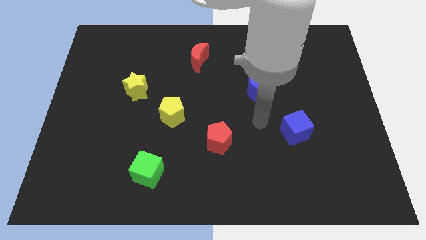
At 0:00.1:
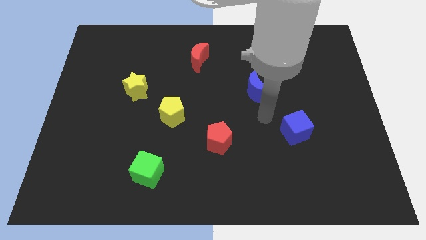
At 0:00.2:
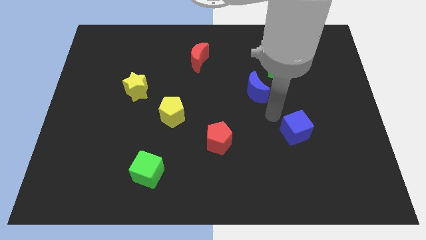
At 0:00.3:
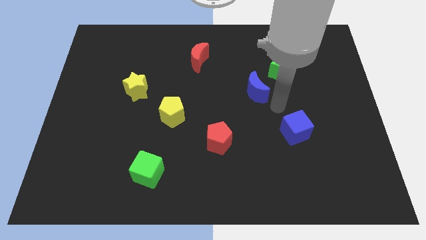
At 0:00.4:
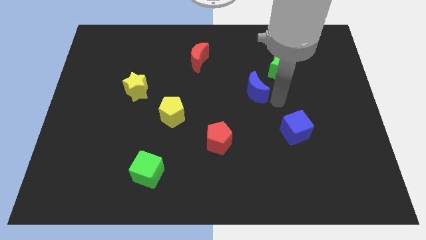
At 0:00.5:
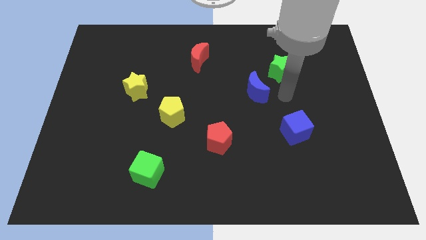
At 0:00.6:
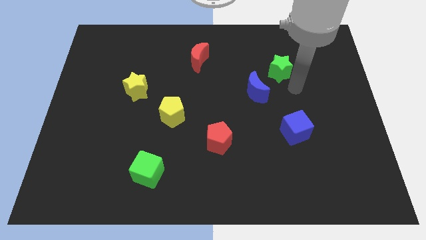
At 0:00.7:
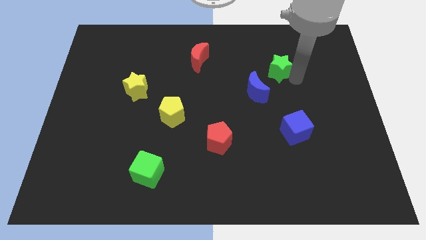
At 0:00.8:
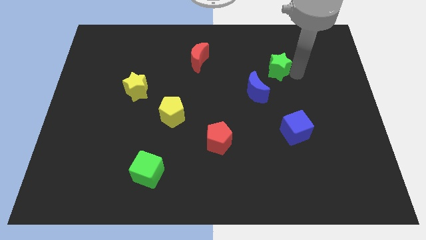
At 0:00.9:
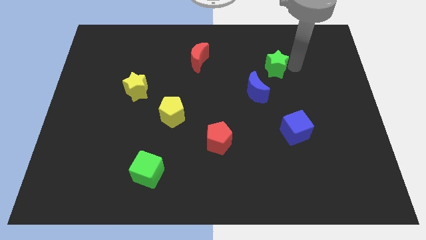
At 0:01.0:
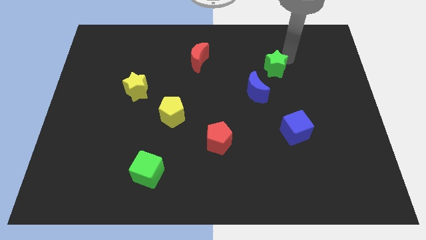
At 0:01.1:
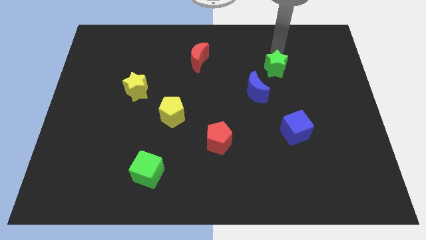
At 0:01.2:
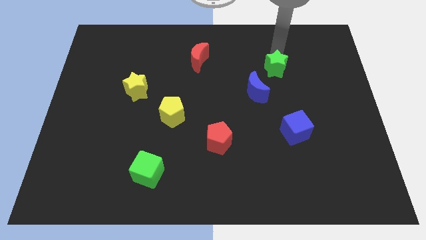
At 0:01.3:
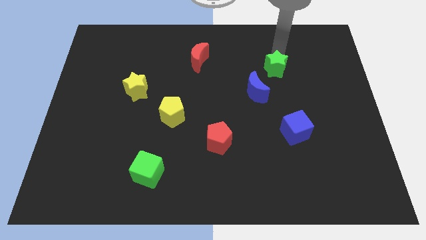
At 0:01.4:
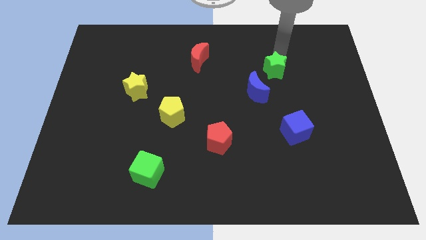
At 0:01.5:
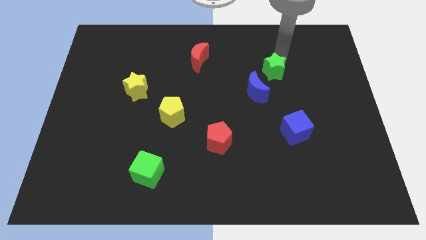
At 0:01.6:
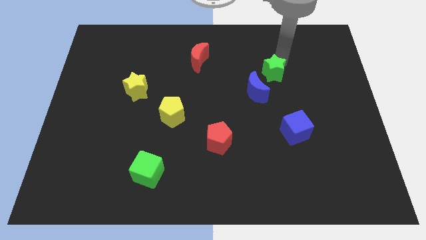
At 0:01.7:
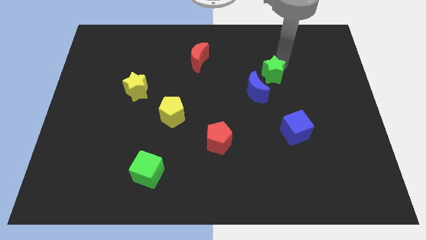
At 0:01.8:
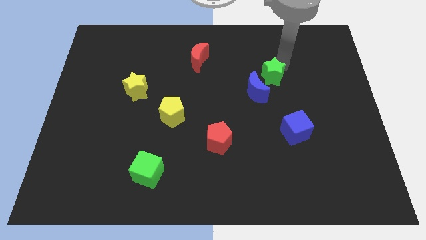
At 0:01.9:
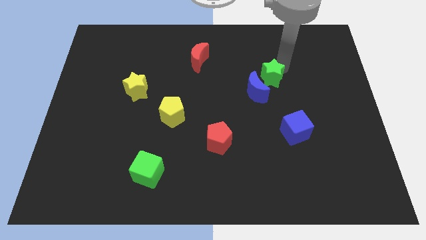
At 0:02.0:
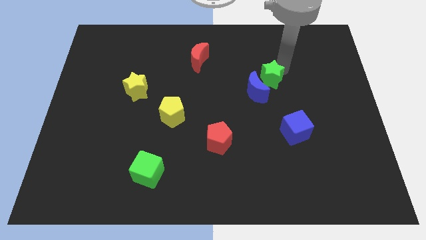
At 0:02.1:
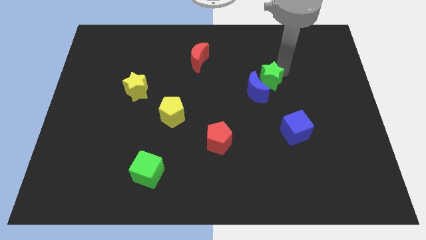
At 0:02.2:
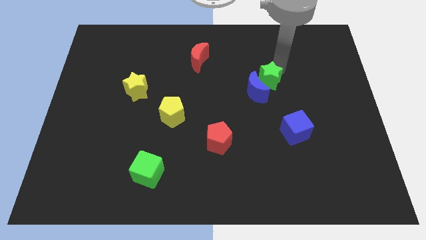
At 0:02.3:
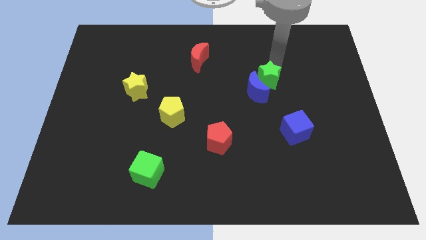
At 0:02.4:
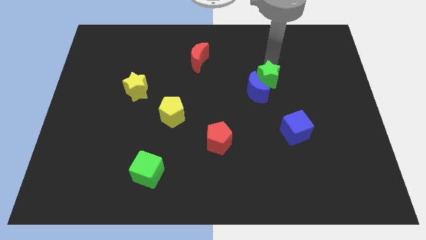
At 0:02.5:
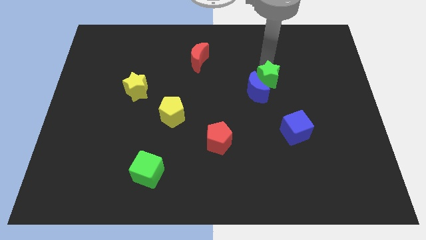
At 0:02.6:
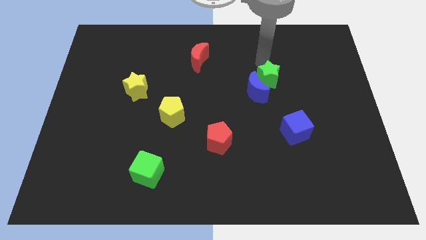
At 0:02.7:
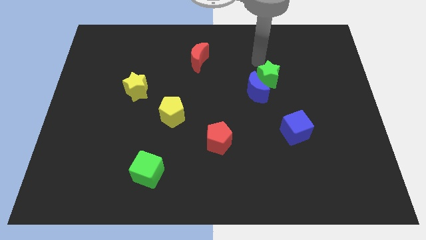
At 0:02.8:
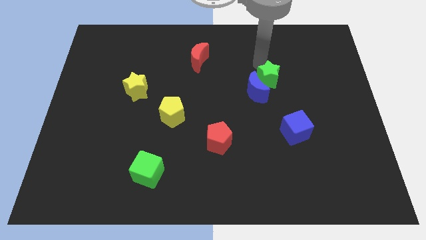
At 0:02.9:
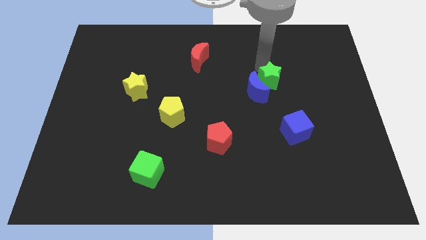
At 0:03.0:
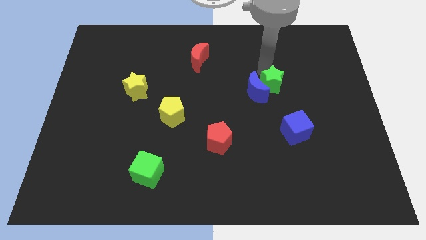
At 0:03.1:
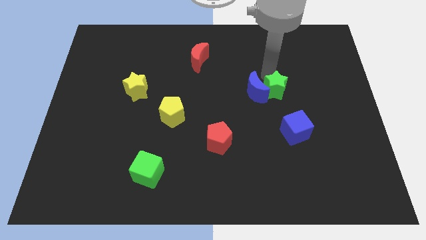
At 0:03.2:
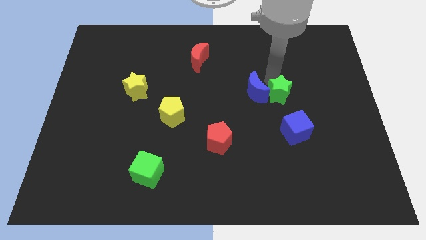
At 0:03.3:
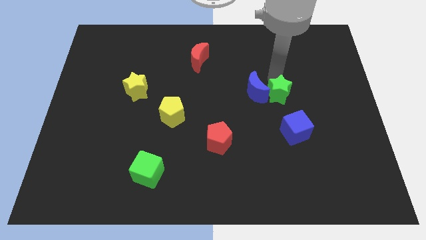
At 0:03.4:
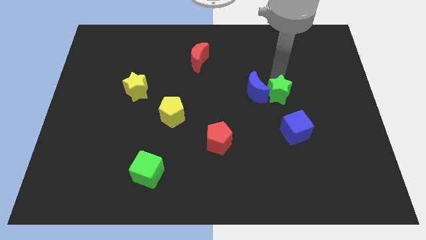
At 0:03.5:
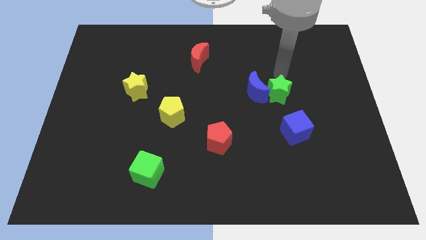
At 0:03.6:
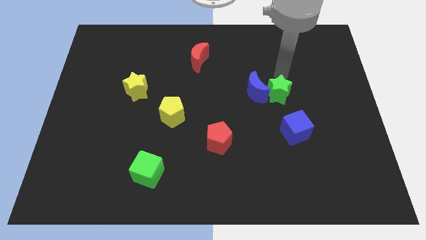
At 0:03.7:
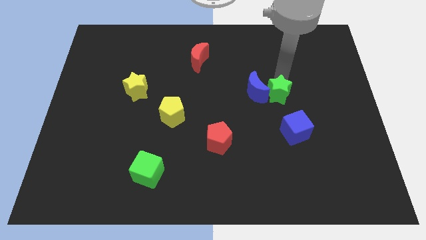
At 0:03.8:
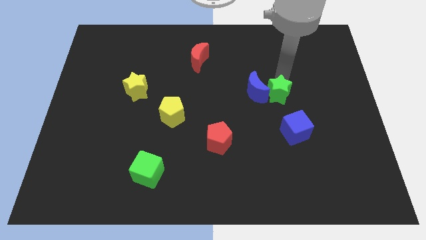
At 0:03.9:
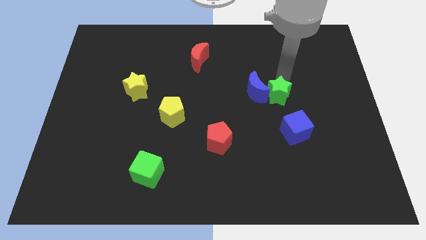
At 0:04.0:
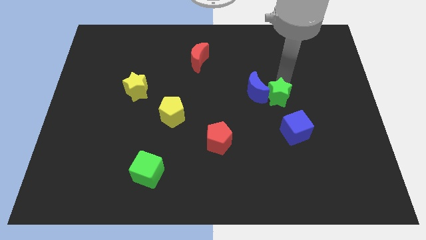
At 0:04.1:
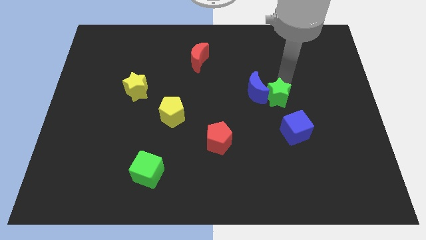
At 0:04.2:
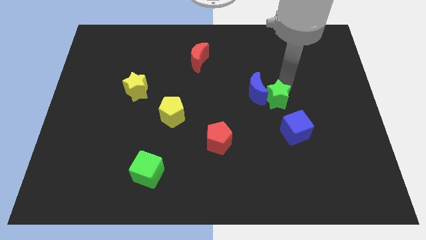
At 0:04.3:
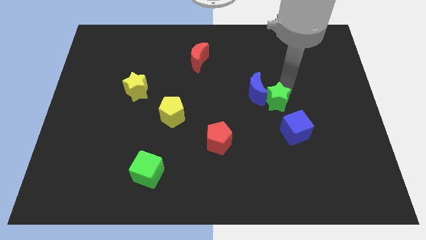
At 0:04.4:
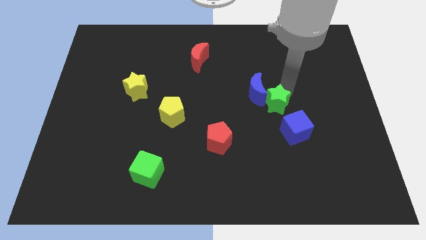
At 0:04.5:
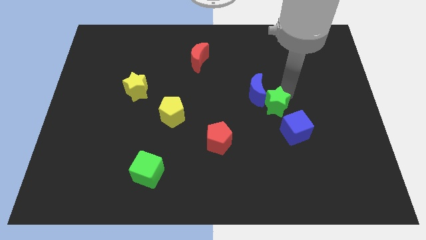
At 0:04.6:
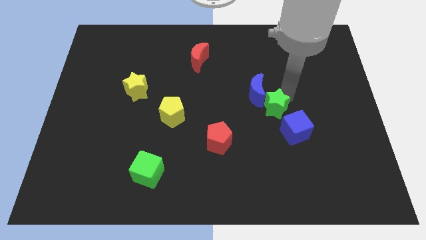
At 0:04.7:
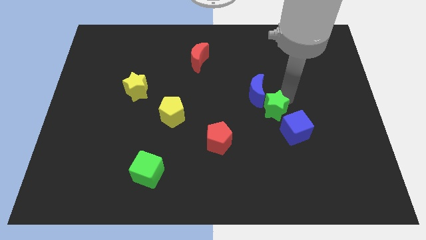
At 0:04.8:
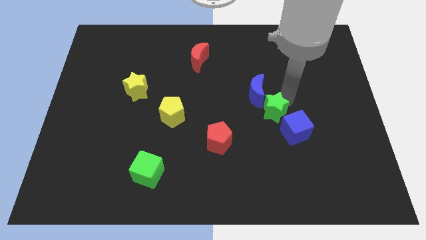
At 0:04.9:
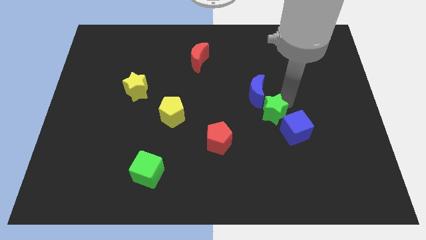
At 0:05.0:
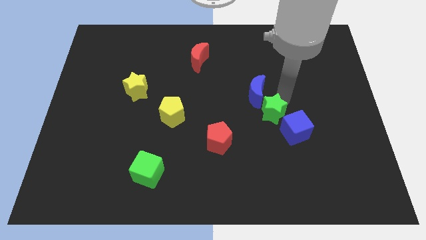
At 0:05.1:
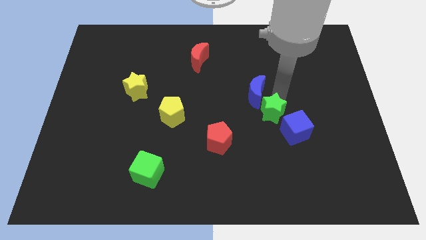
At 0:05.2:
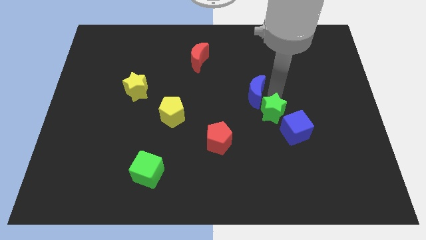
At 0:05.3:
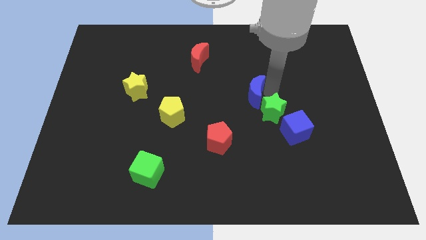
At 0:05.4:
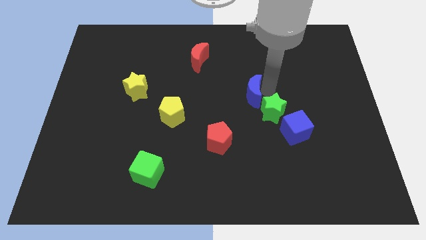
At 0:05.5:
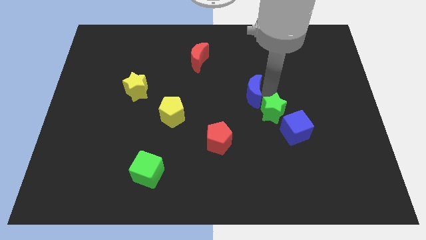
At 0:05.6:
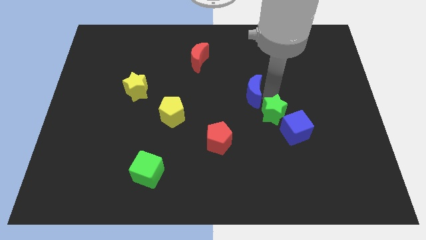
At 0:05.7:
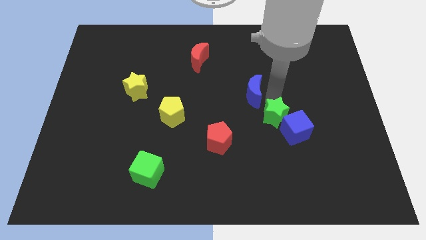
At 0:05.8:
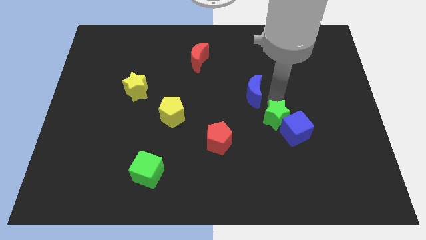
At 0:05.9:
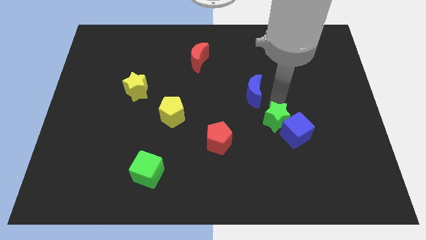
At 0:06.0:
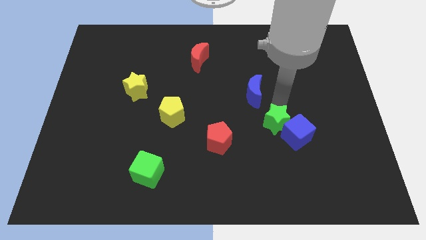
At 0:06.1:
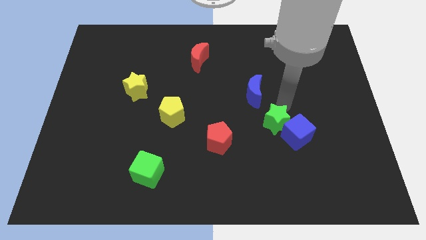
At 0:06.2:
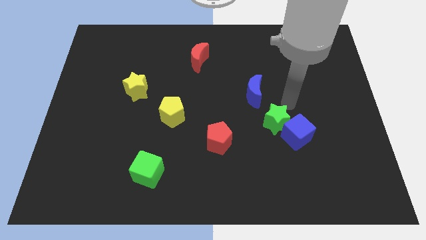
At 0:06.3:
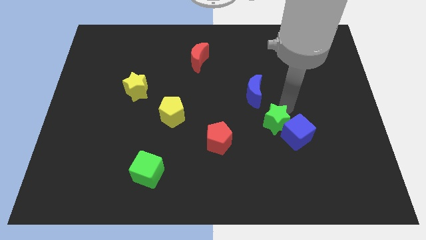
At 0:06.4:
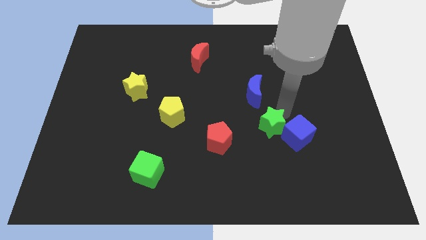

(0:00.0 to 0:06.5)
put the green star right of the red pentagon

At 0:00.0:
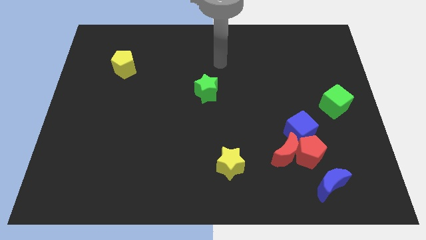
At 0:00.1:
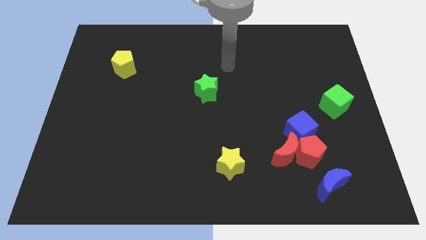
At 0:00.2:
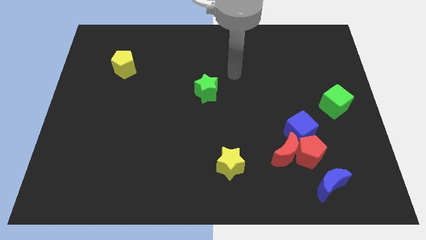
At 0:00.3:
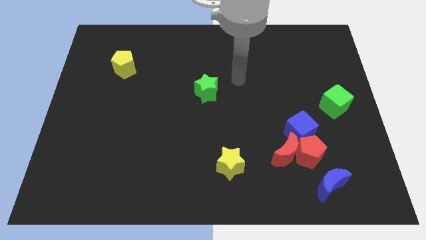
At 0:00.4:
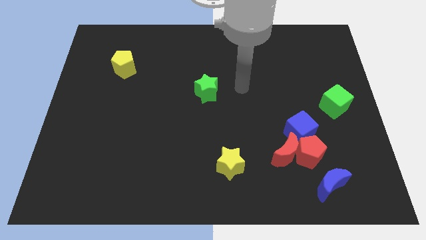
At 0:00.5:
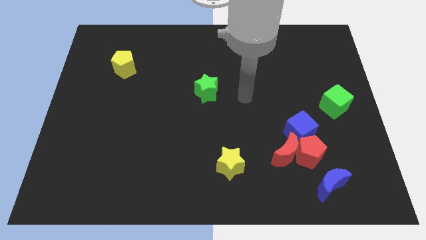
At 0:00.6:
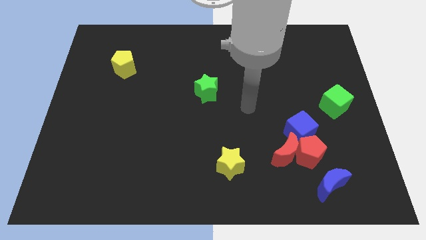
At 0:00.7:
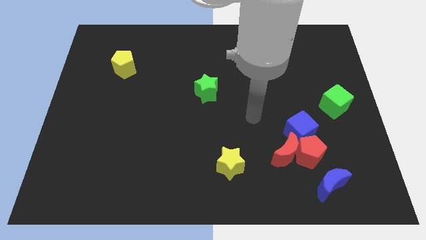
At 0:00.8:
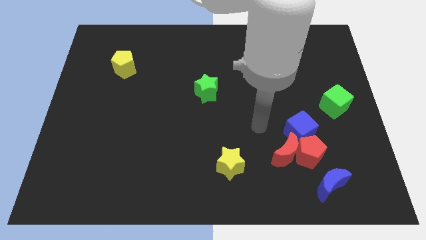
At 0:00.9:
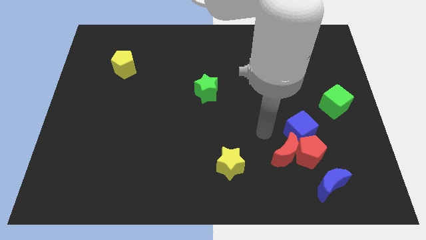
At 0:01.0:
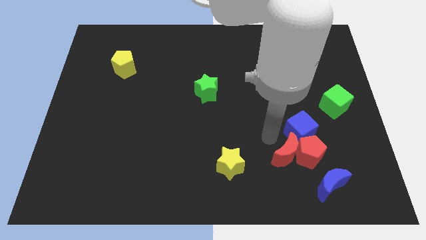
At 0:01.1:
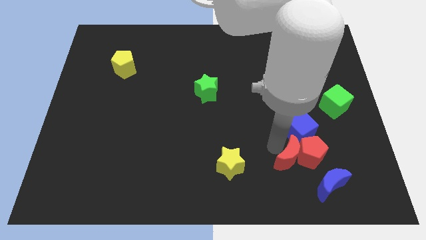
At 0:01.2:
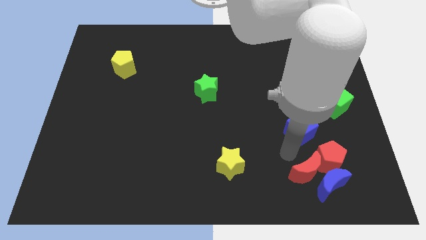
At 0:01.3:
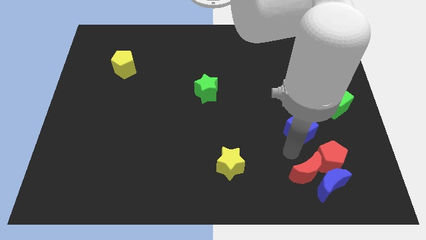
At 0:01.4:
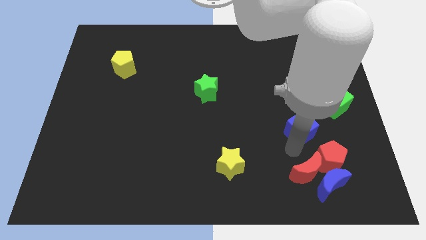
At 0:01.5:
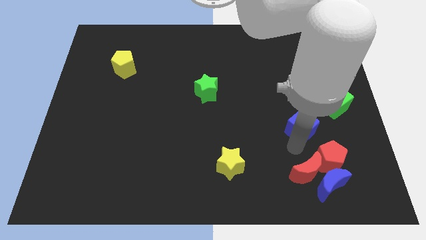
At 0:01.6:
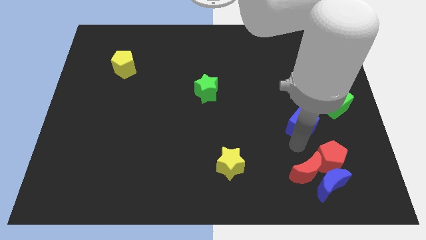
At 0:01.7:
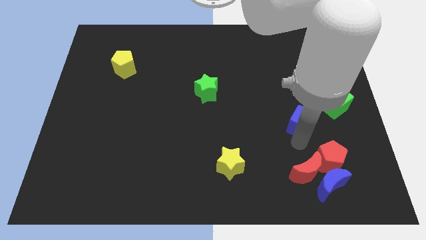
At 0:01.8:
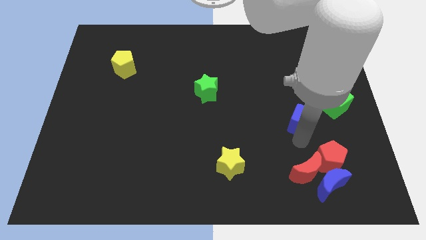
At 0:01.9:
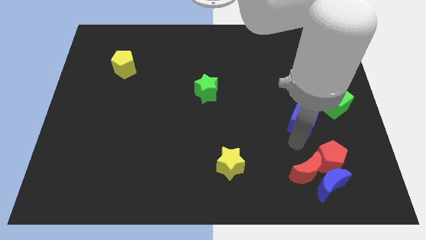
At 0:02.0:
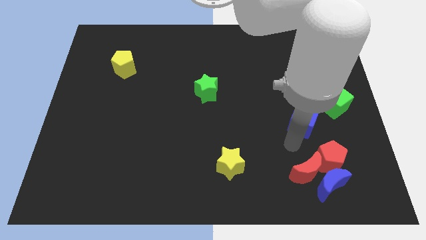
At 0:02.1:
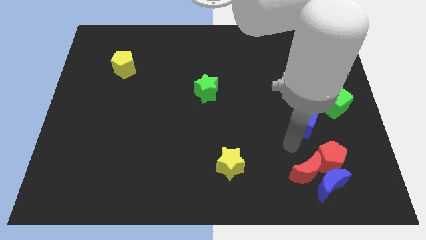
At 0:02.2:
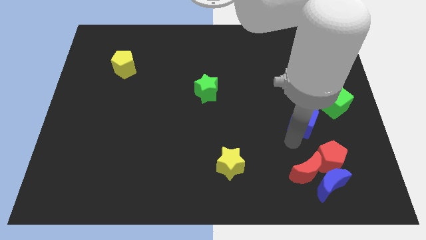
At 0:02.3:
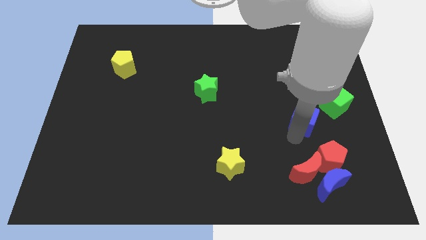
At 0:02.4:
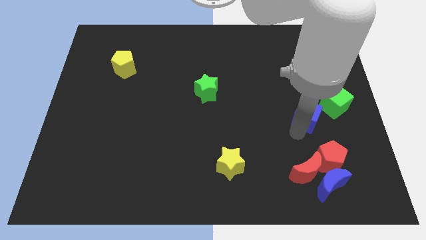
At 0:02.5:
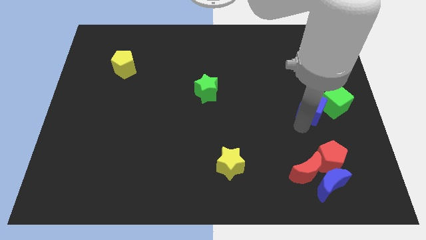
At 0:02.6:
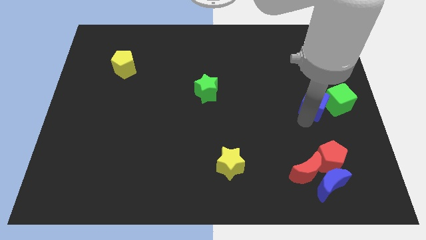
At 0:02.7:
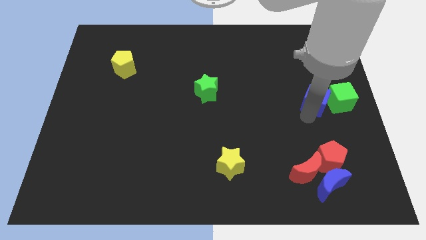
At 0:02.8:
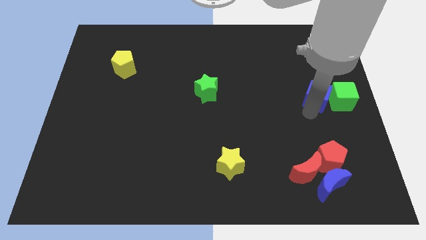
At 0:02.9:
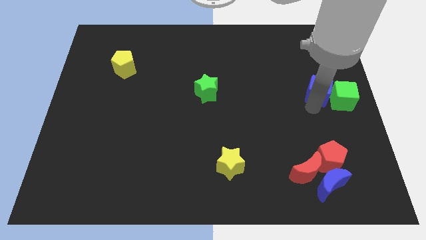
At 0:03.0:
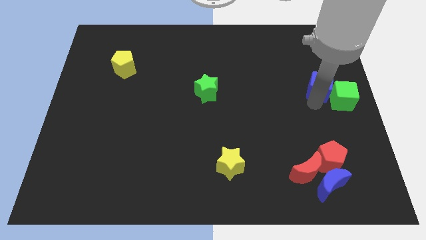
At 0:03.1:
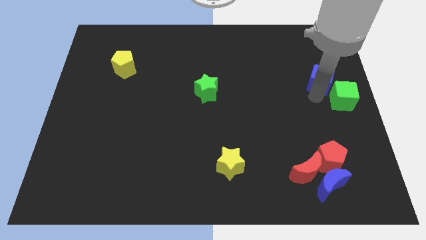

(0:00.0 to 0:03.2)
put the blue cube to the top of the green cube
